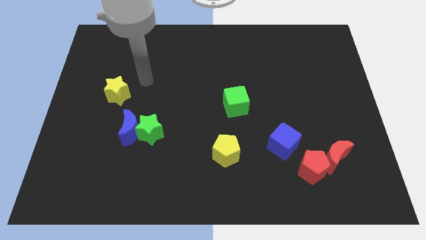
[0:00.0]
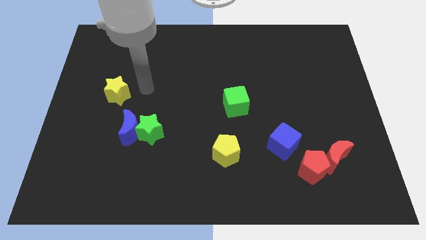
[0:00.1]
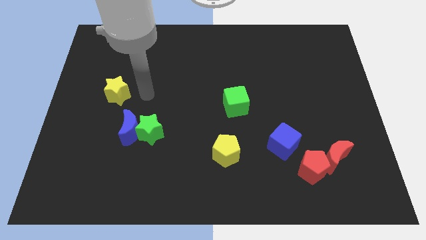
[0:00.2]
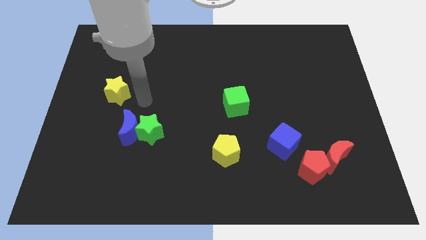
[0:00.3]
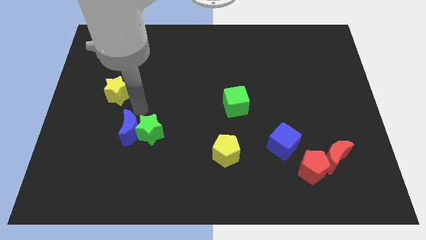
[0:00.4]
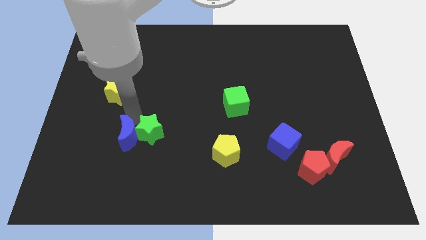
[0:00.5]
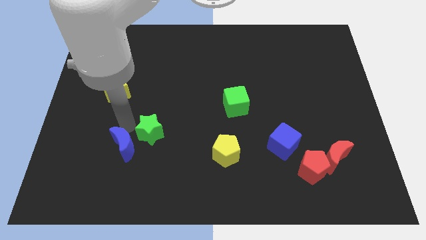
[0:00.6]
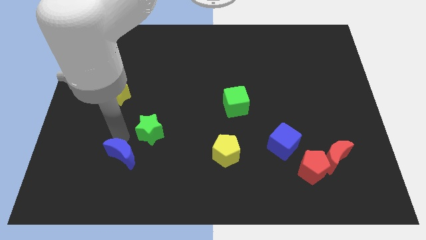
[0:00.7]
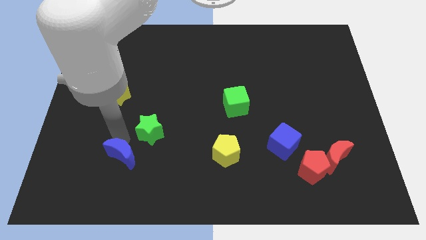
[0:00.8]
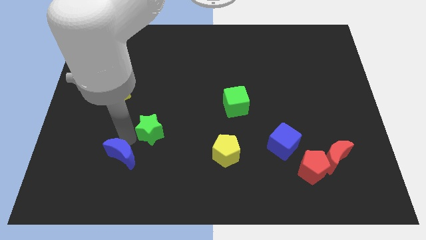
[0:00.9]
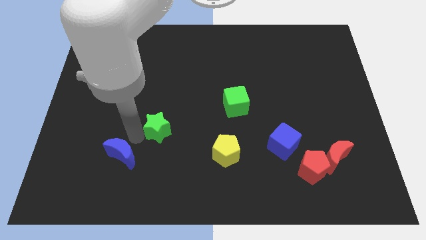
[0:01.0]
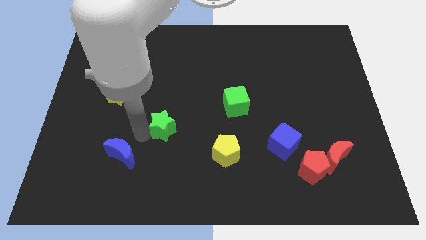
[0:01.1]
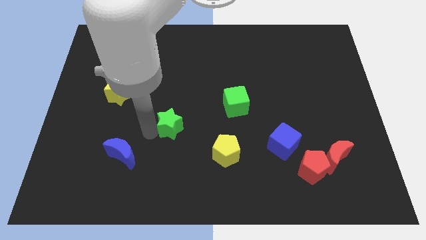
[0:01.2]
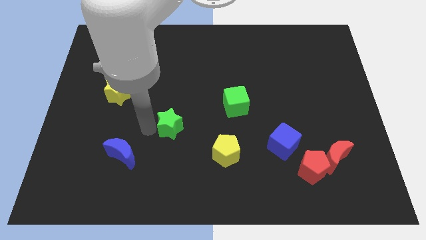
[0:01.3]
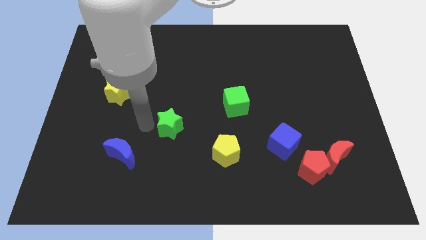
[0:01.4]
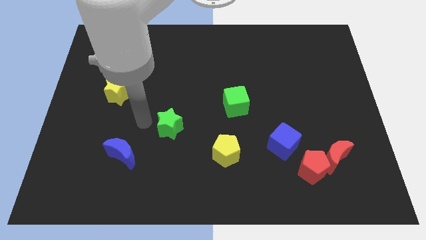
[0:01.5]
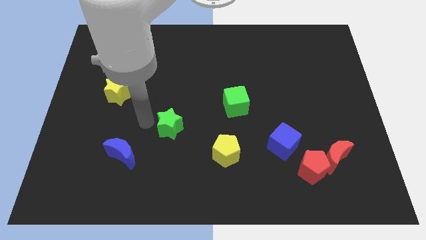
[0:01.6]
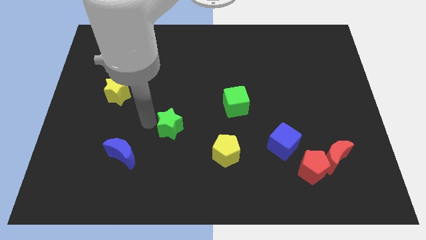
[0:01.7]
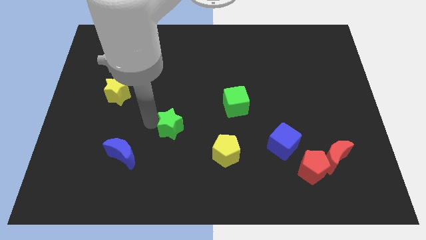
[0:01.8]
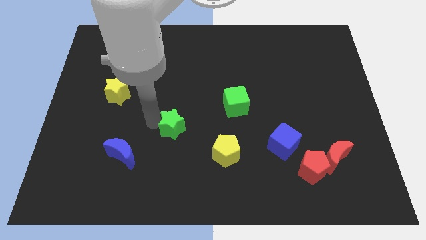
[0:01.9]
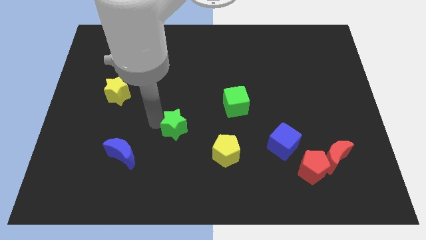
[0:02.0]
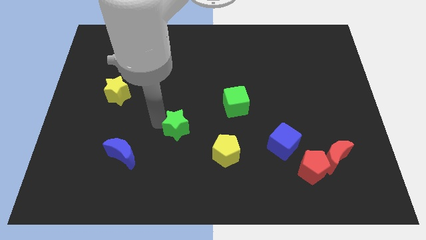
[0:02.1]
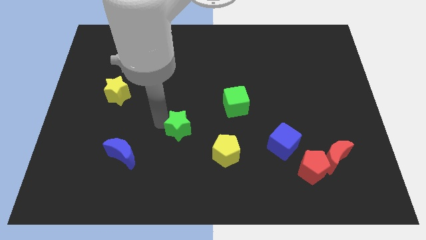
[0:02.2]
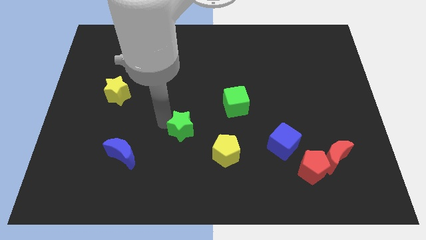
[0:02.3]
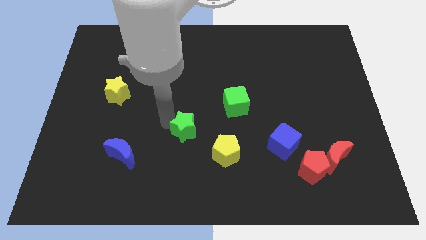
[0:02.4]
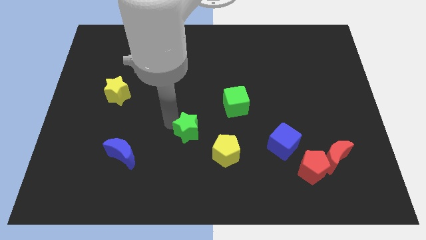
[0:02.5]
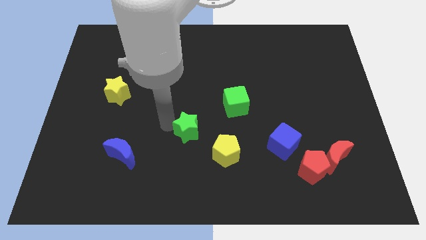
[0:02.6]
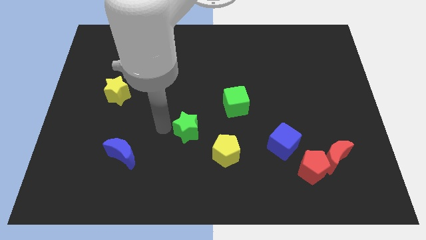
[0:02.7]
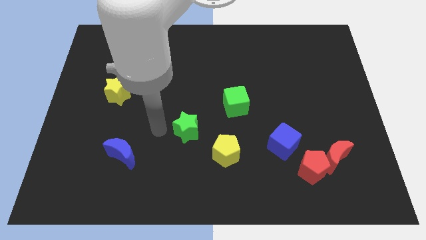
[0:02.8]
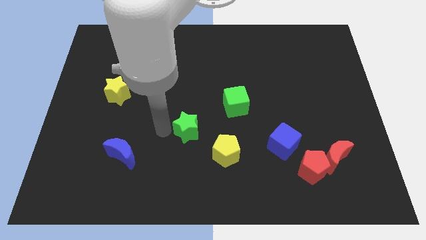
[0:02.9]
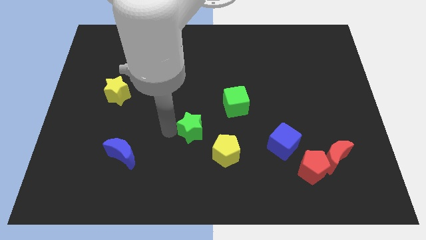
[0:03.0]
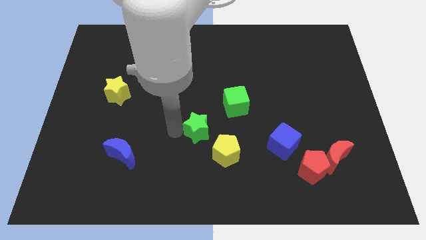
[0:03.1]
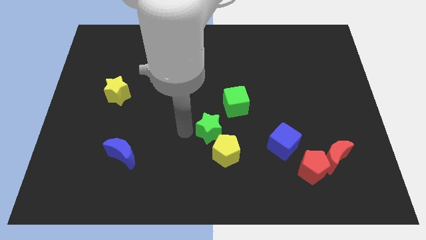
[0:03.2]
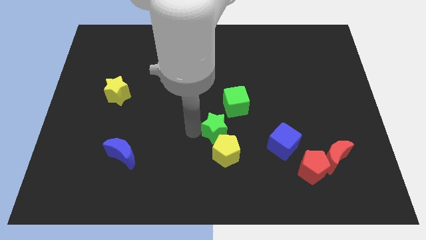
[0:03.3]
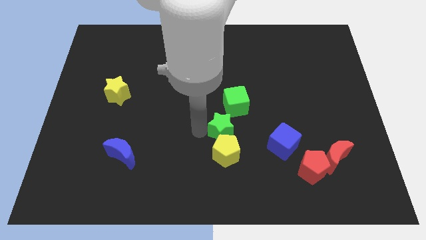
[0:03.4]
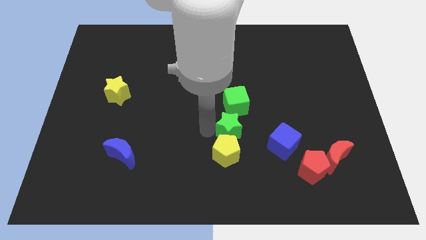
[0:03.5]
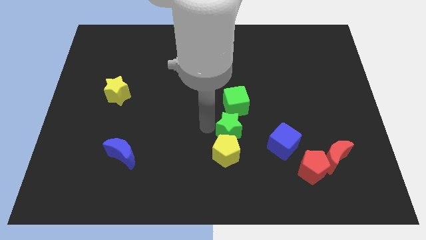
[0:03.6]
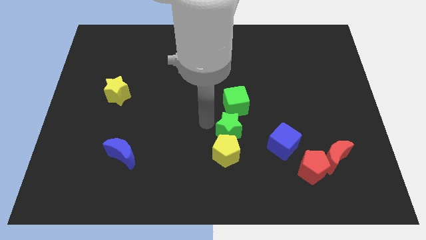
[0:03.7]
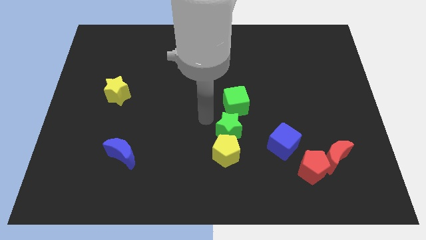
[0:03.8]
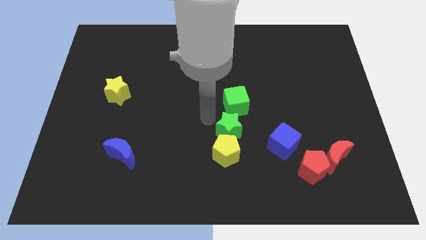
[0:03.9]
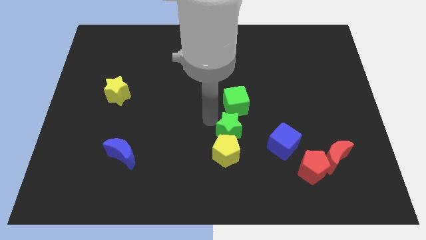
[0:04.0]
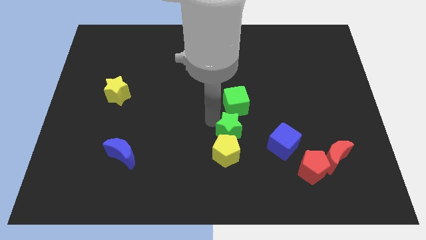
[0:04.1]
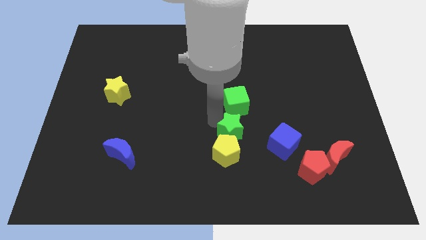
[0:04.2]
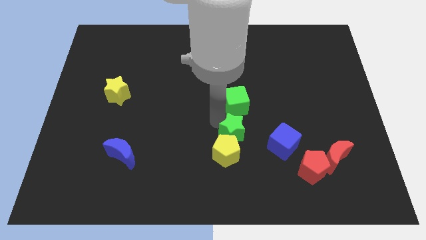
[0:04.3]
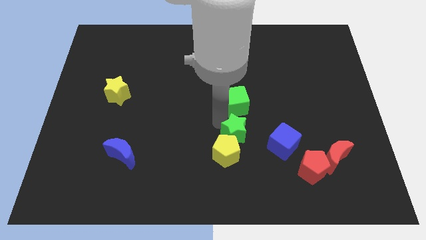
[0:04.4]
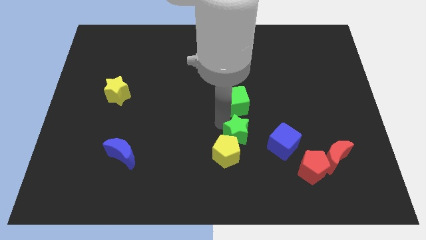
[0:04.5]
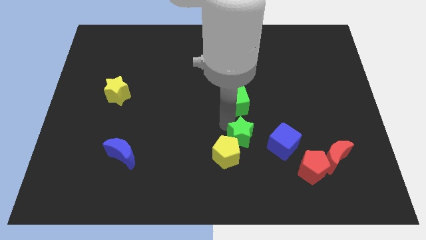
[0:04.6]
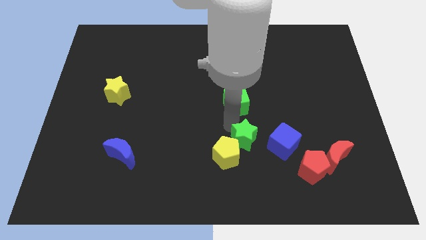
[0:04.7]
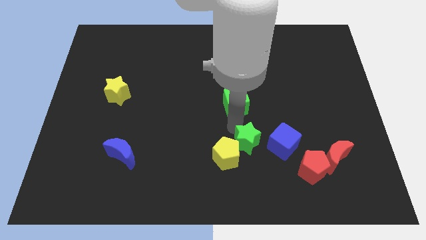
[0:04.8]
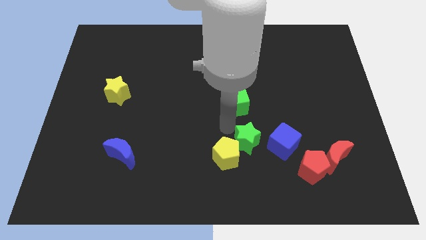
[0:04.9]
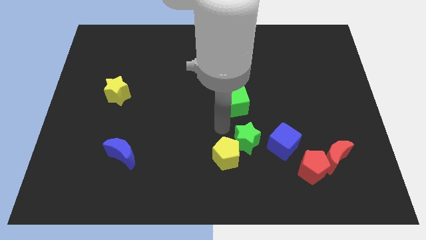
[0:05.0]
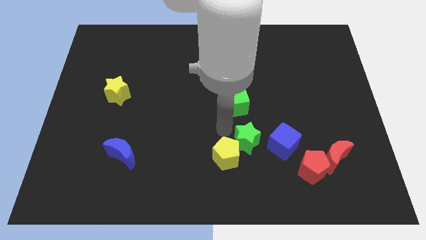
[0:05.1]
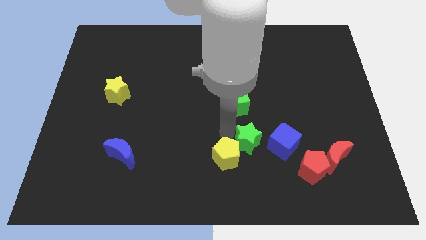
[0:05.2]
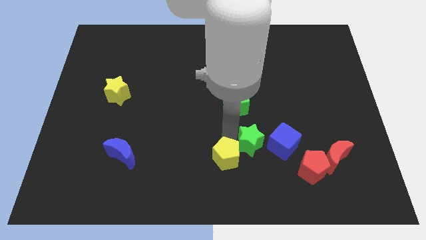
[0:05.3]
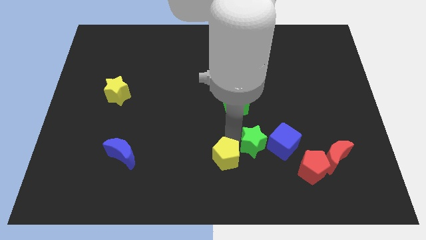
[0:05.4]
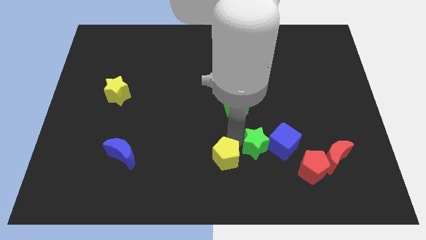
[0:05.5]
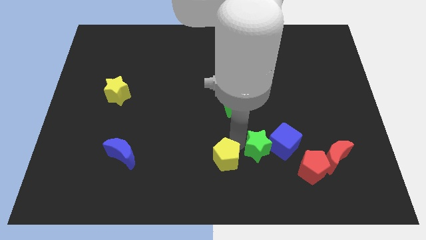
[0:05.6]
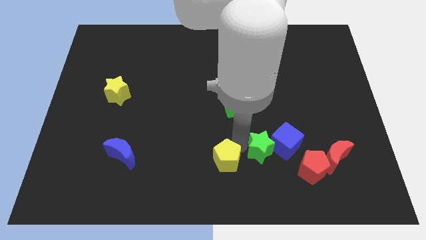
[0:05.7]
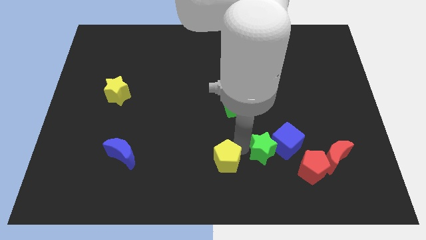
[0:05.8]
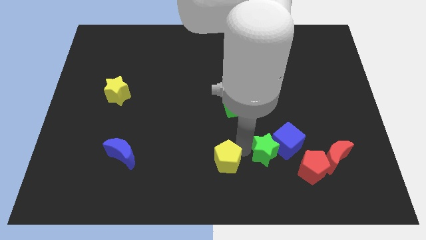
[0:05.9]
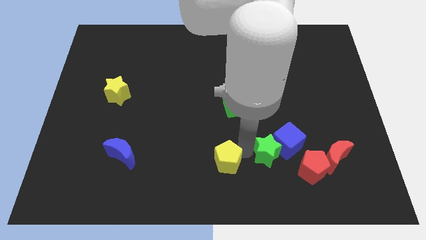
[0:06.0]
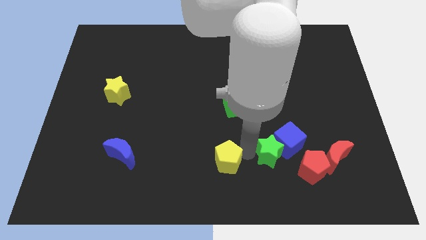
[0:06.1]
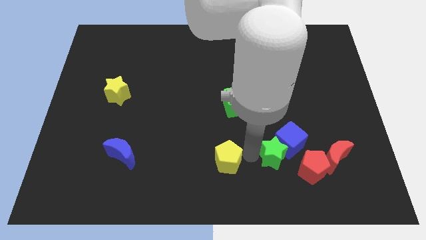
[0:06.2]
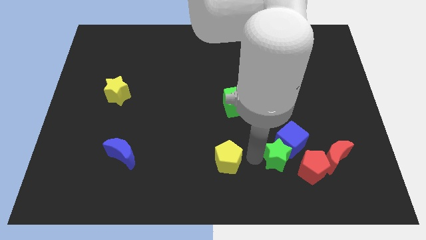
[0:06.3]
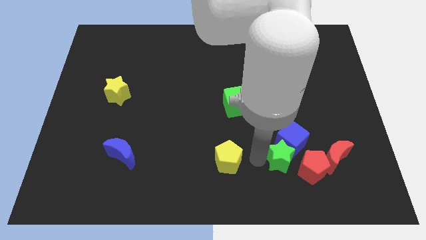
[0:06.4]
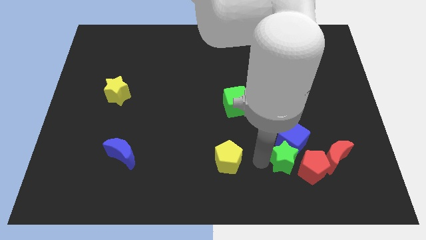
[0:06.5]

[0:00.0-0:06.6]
move the green star to the red pentagon

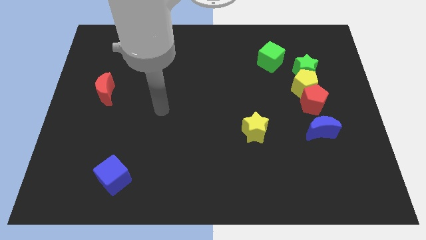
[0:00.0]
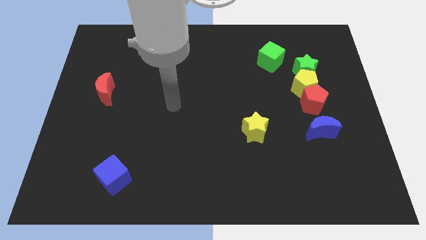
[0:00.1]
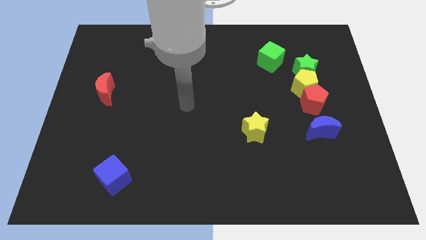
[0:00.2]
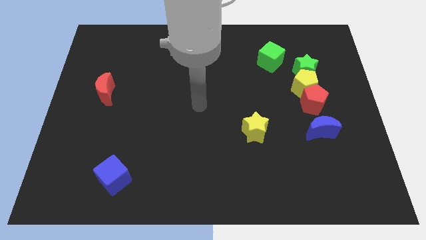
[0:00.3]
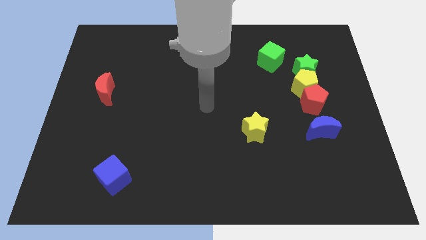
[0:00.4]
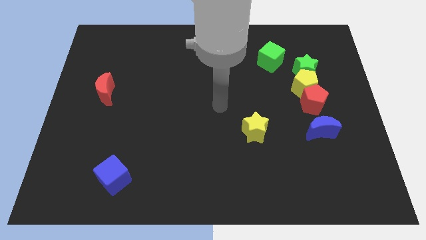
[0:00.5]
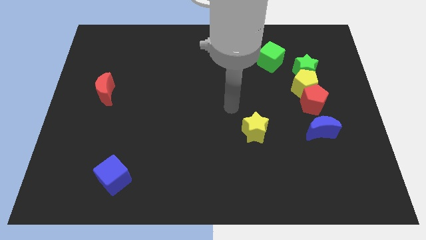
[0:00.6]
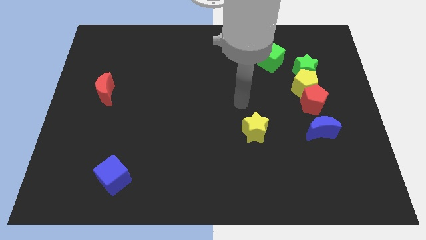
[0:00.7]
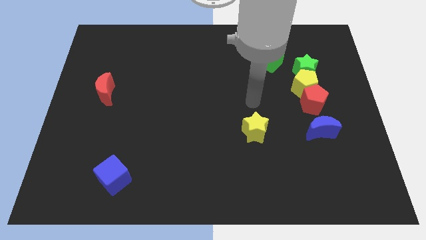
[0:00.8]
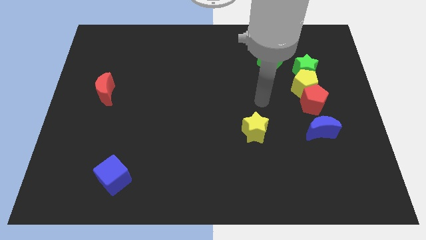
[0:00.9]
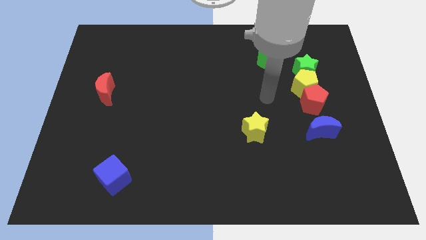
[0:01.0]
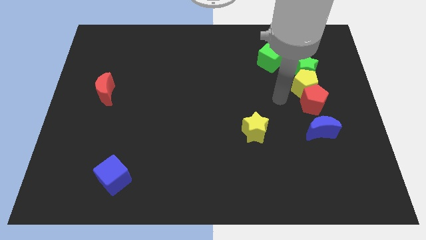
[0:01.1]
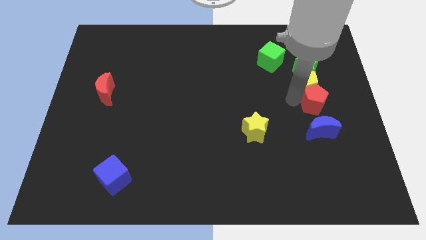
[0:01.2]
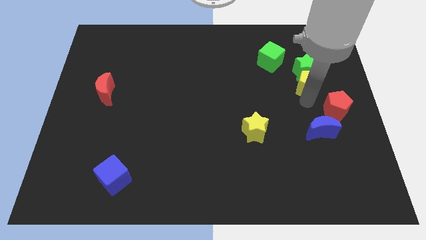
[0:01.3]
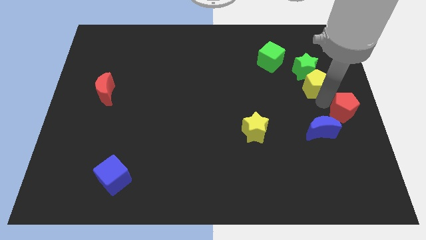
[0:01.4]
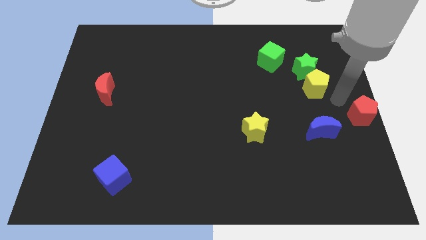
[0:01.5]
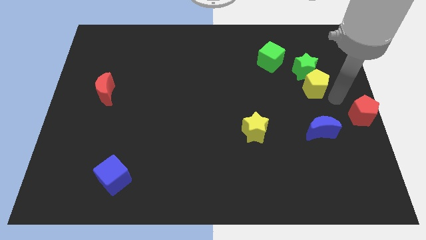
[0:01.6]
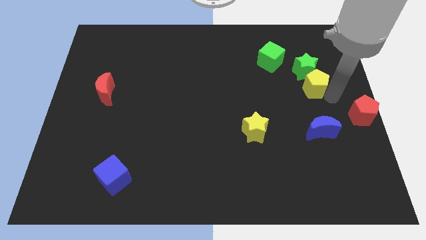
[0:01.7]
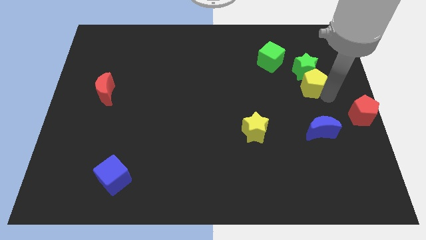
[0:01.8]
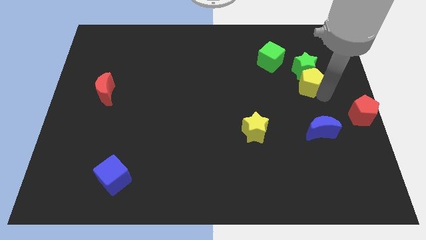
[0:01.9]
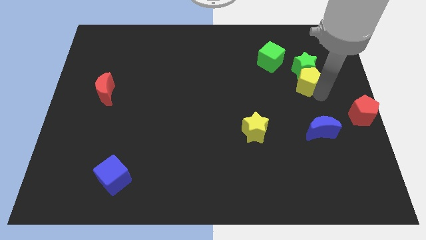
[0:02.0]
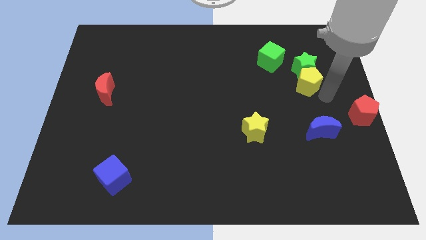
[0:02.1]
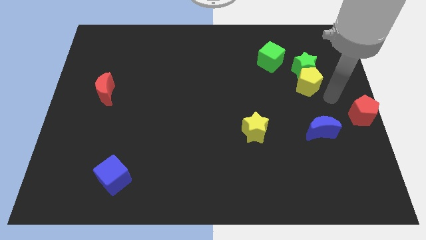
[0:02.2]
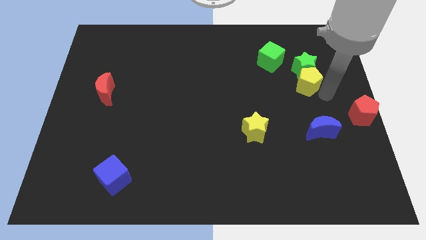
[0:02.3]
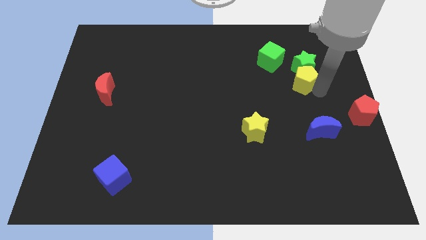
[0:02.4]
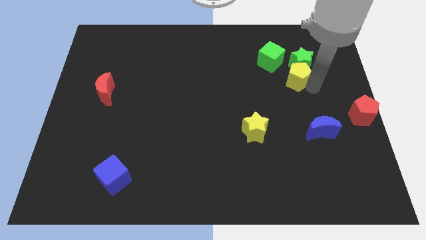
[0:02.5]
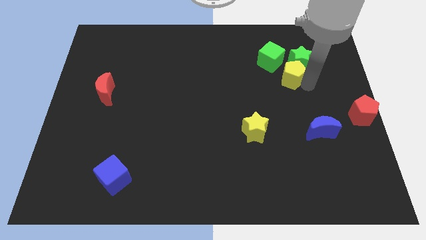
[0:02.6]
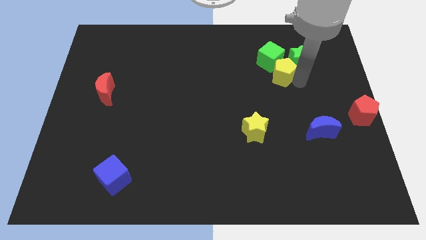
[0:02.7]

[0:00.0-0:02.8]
put the yellow pentagon towards the green cube
